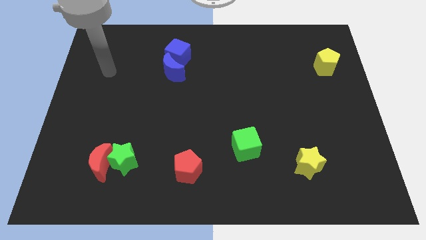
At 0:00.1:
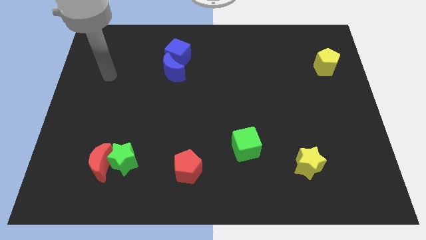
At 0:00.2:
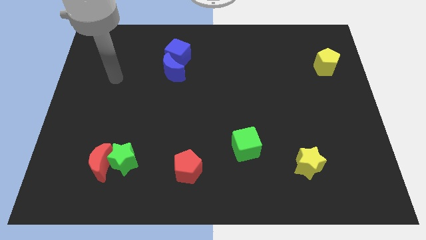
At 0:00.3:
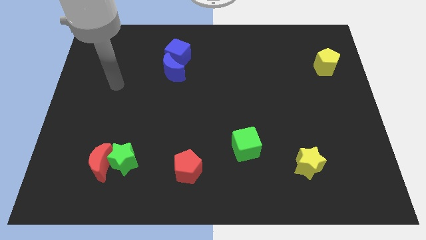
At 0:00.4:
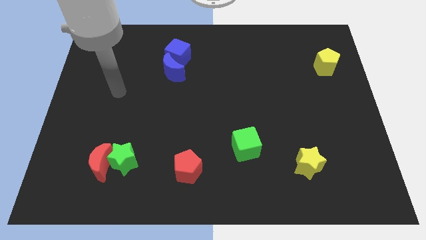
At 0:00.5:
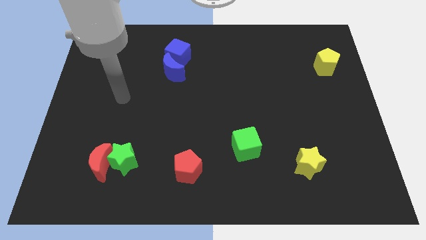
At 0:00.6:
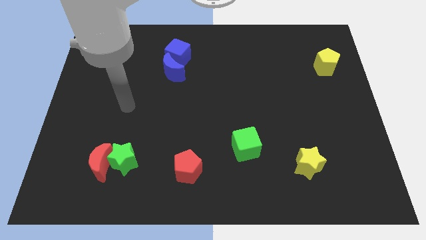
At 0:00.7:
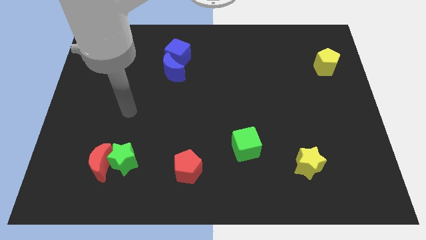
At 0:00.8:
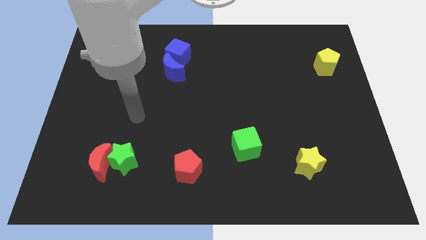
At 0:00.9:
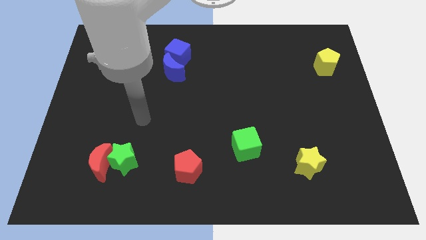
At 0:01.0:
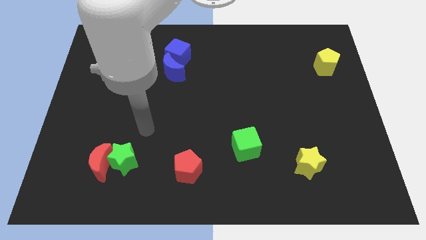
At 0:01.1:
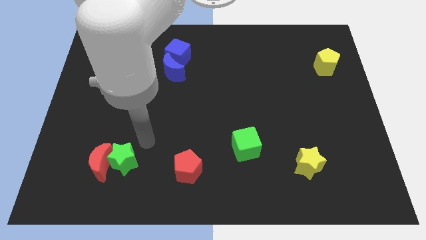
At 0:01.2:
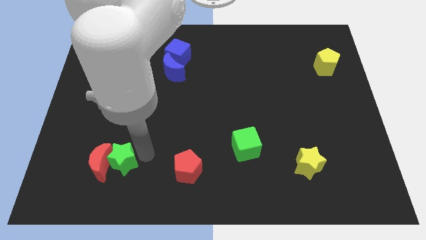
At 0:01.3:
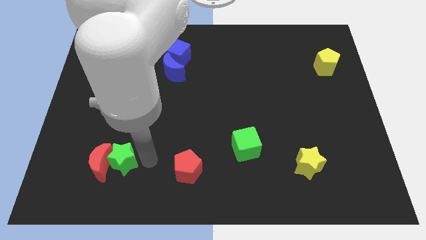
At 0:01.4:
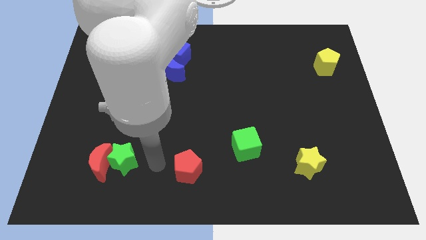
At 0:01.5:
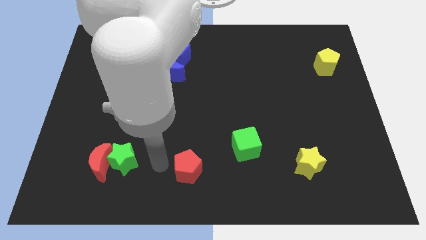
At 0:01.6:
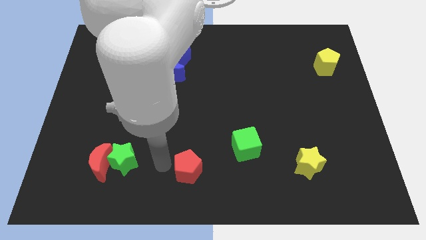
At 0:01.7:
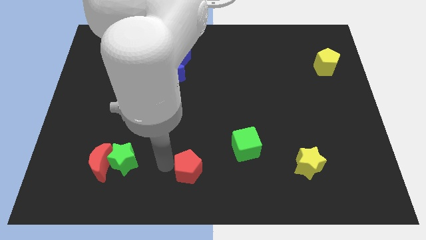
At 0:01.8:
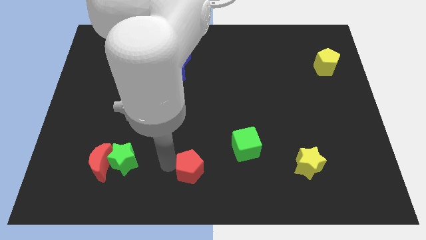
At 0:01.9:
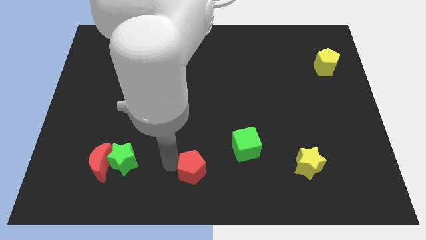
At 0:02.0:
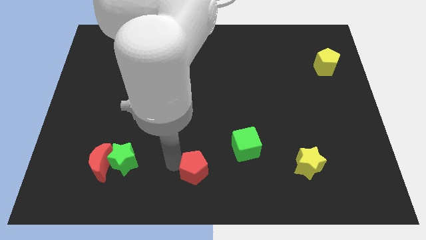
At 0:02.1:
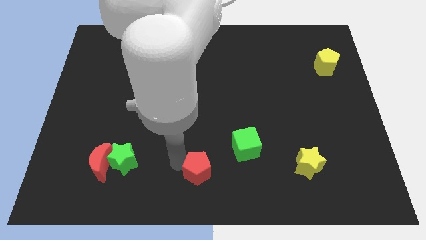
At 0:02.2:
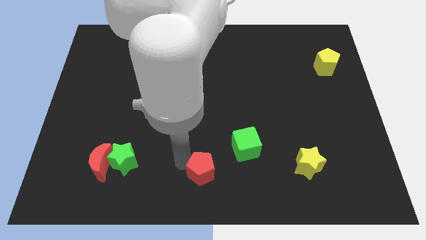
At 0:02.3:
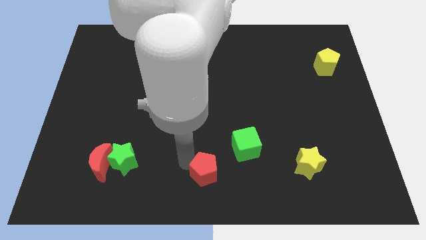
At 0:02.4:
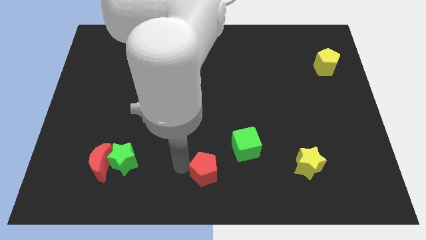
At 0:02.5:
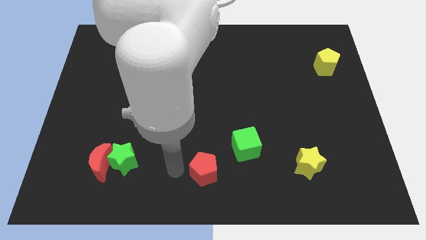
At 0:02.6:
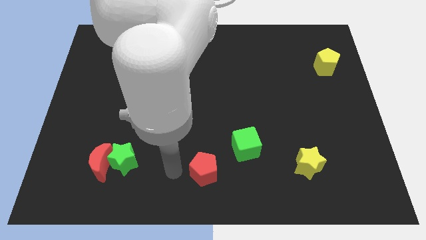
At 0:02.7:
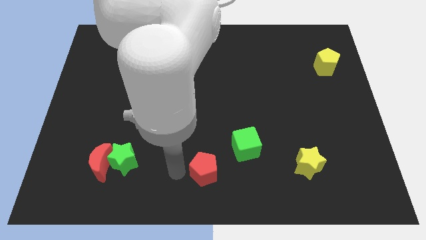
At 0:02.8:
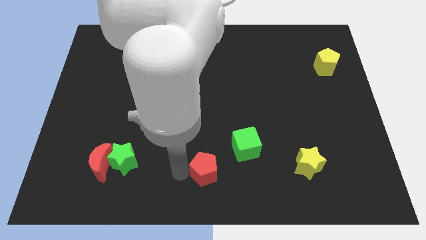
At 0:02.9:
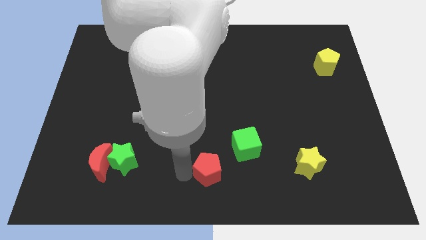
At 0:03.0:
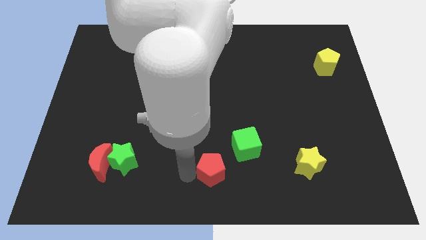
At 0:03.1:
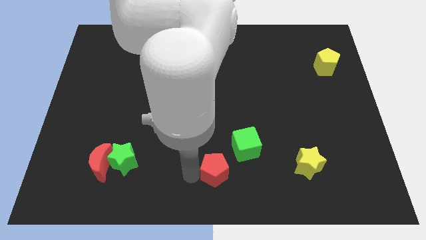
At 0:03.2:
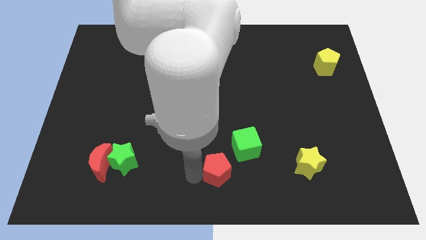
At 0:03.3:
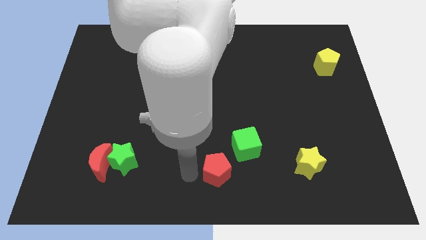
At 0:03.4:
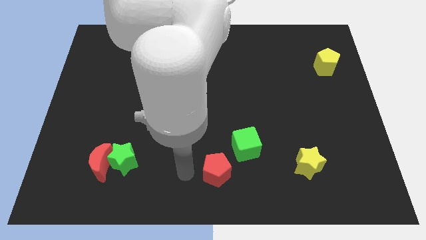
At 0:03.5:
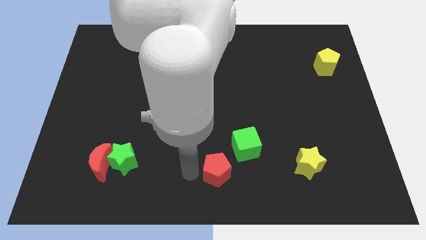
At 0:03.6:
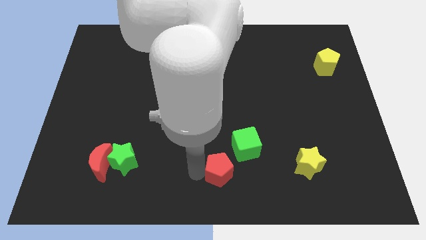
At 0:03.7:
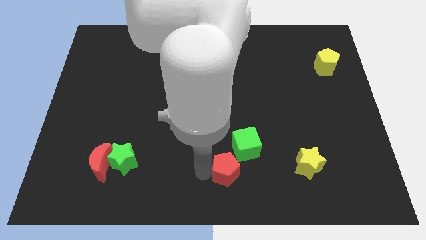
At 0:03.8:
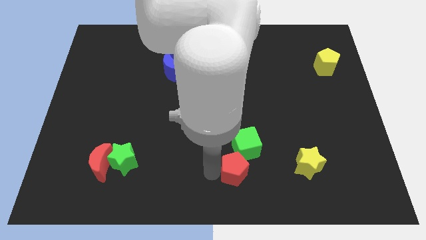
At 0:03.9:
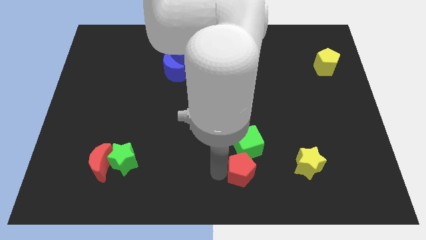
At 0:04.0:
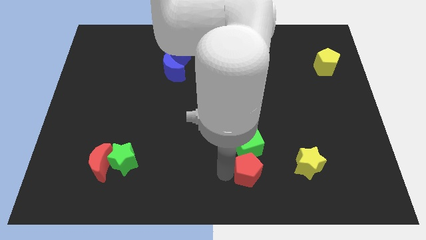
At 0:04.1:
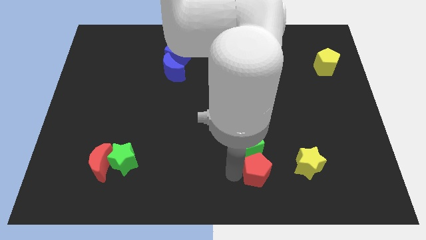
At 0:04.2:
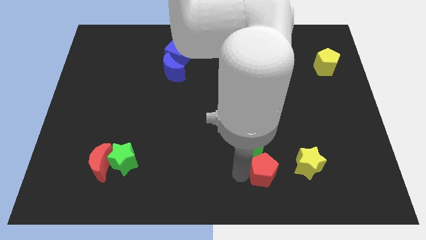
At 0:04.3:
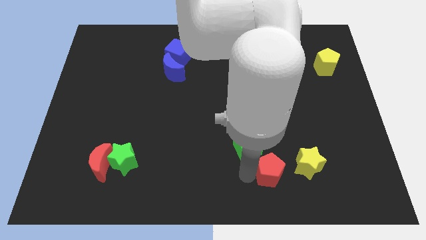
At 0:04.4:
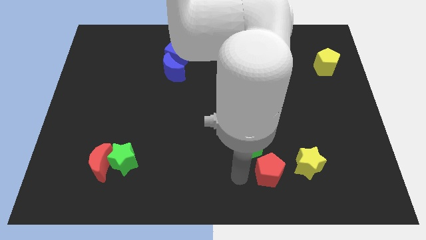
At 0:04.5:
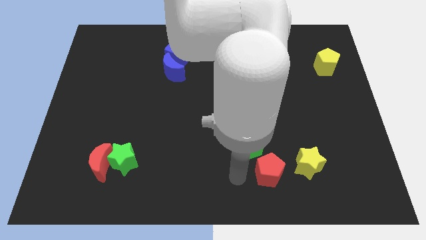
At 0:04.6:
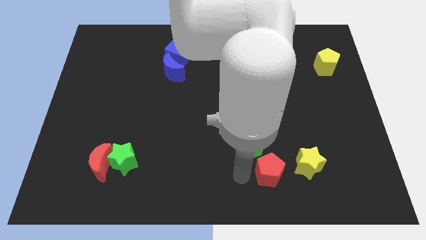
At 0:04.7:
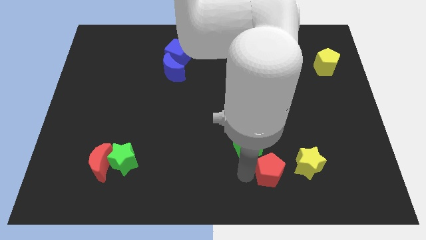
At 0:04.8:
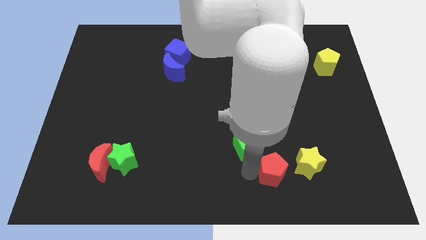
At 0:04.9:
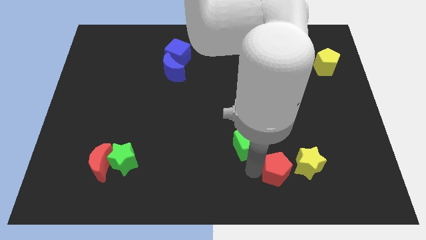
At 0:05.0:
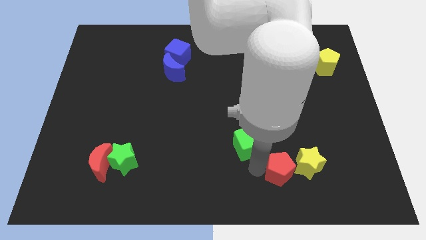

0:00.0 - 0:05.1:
slide the red pentagon next to the yellow star

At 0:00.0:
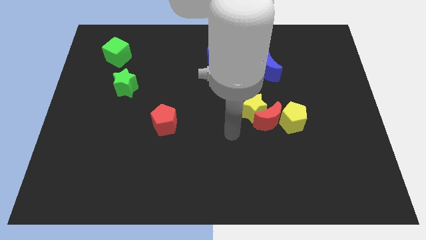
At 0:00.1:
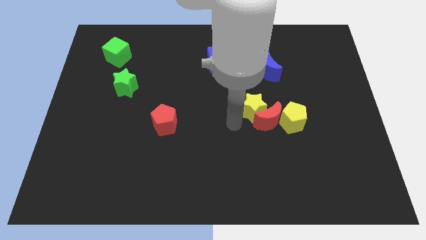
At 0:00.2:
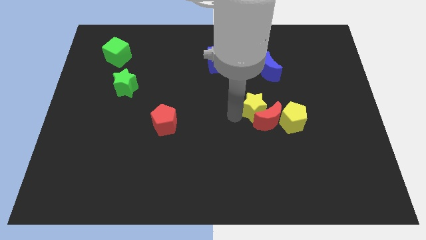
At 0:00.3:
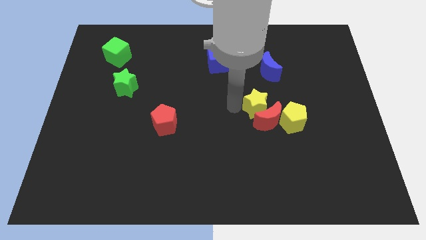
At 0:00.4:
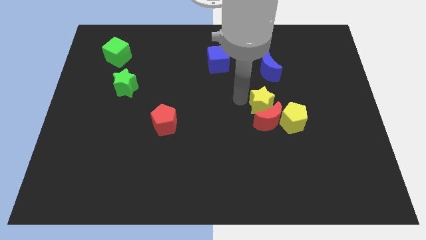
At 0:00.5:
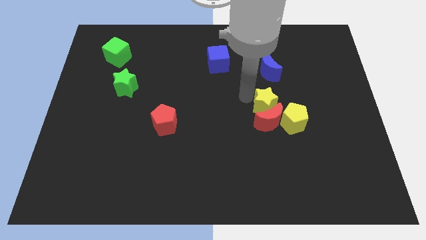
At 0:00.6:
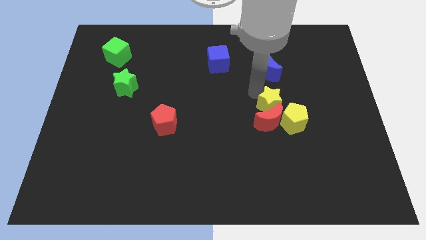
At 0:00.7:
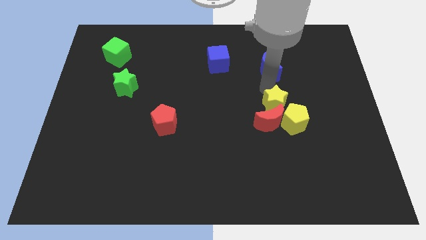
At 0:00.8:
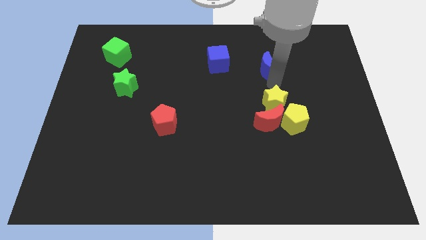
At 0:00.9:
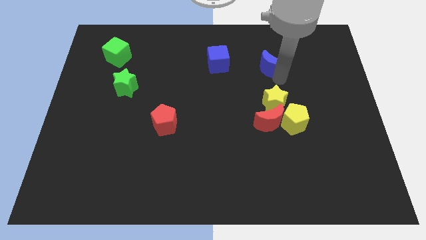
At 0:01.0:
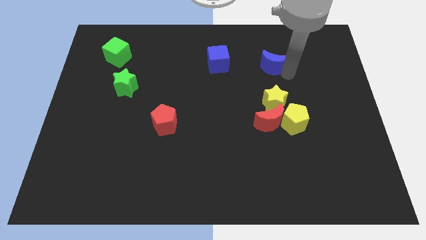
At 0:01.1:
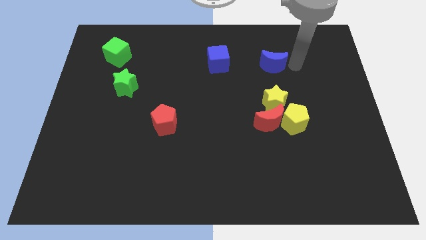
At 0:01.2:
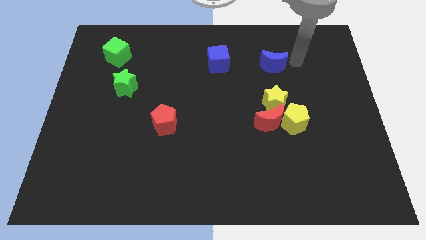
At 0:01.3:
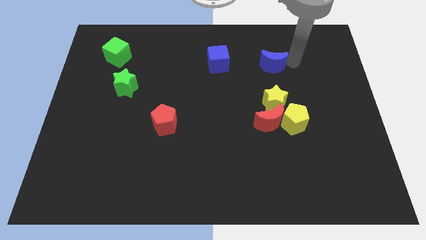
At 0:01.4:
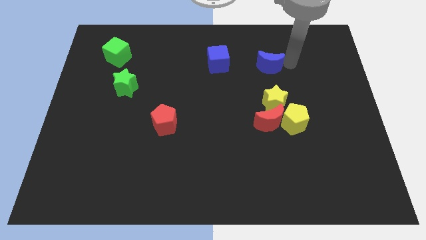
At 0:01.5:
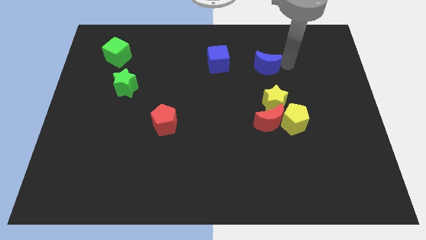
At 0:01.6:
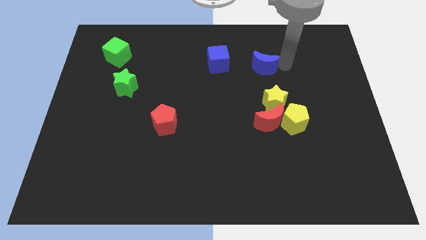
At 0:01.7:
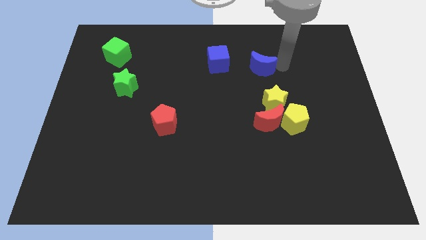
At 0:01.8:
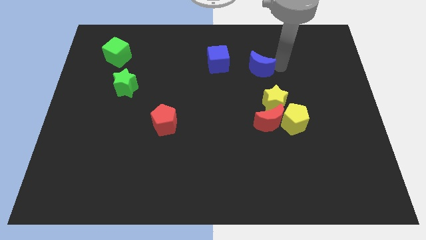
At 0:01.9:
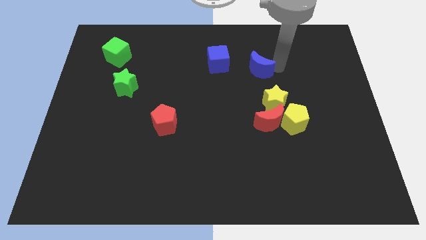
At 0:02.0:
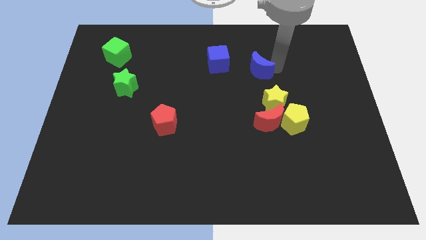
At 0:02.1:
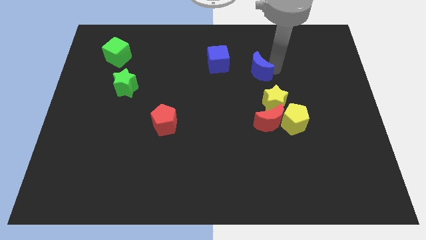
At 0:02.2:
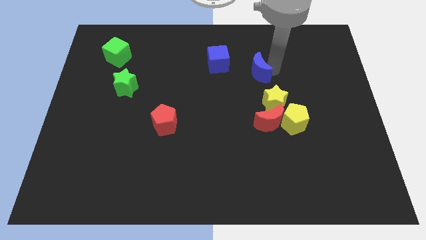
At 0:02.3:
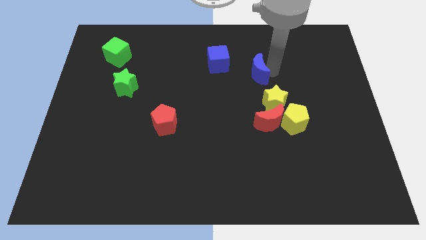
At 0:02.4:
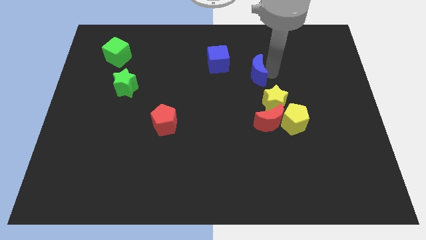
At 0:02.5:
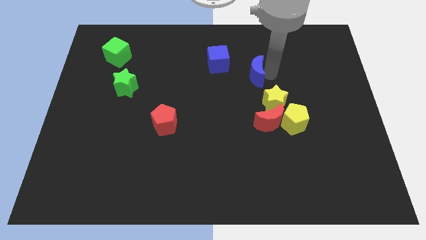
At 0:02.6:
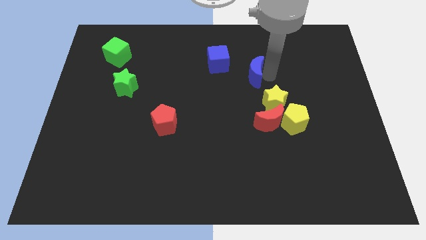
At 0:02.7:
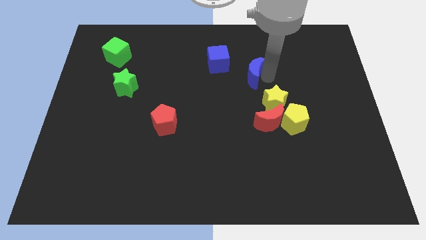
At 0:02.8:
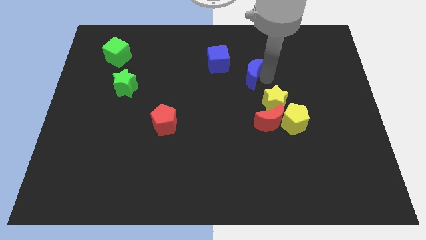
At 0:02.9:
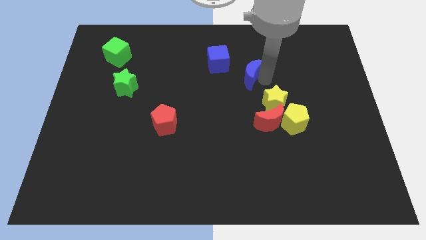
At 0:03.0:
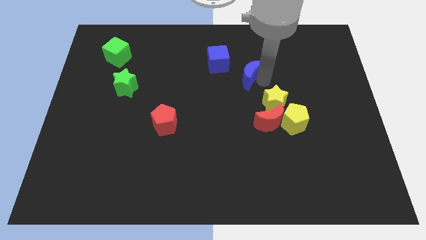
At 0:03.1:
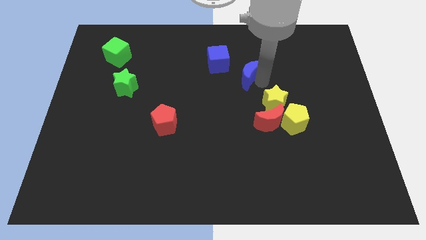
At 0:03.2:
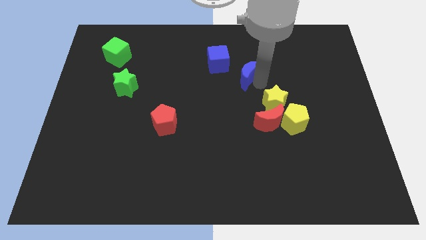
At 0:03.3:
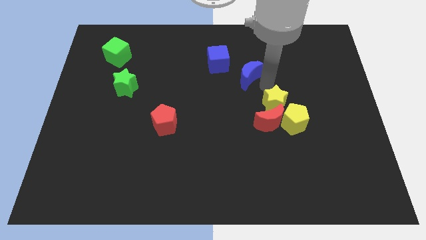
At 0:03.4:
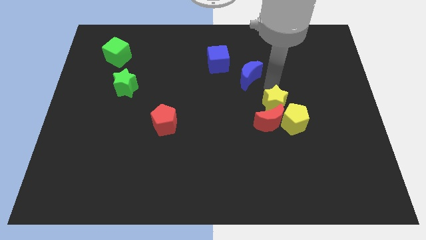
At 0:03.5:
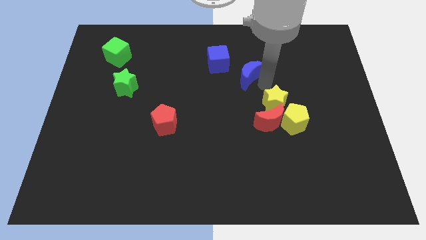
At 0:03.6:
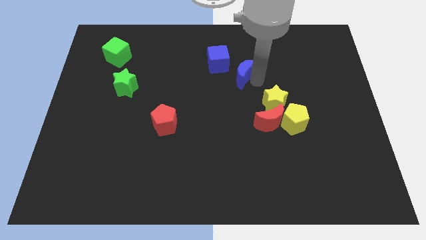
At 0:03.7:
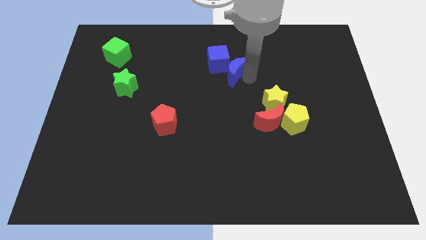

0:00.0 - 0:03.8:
move the blue moon to the blue cube
